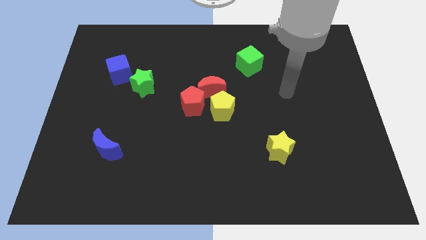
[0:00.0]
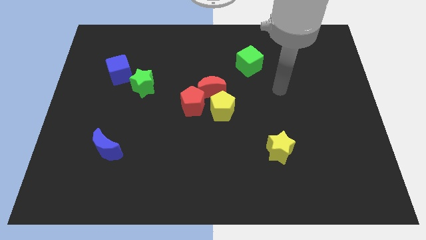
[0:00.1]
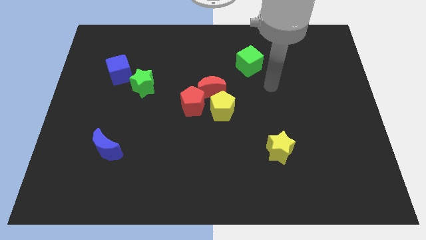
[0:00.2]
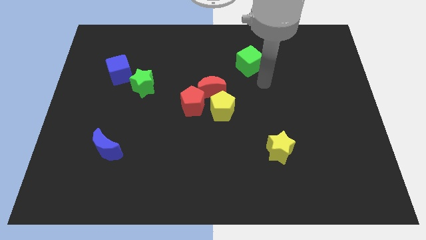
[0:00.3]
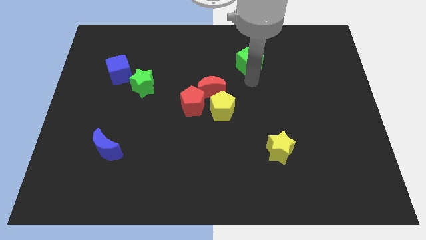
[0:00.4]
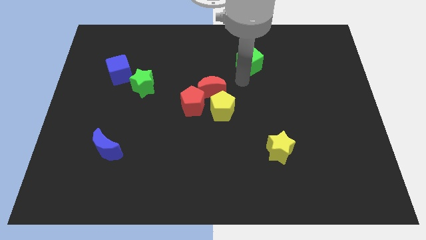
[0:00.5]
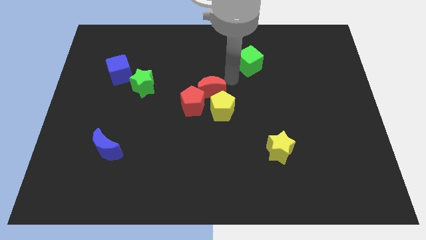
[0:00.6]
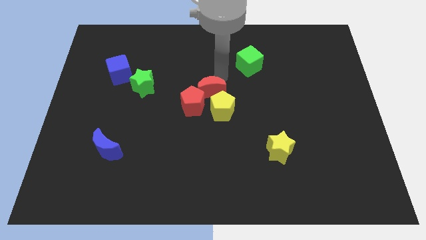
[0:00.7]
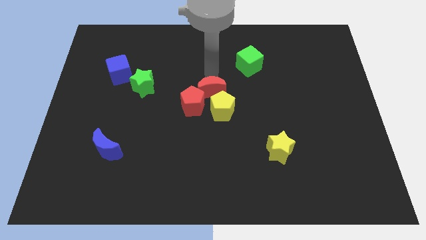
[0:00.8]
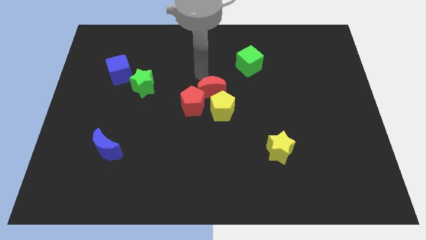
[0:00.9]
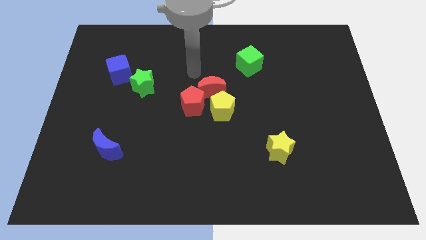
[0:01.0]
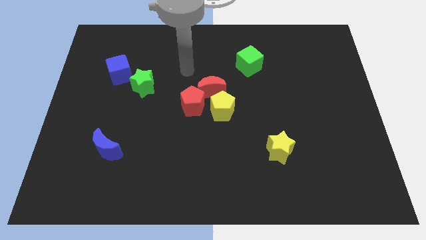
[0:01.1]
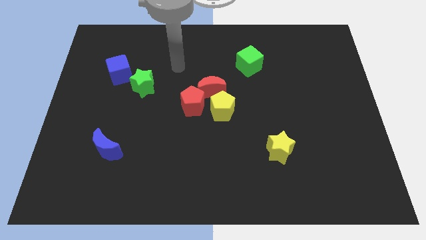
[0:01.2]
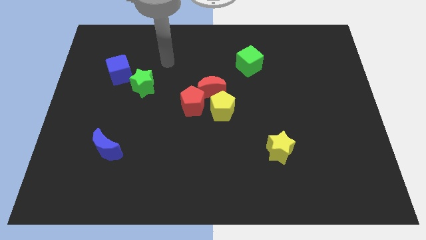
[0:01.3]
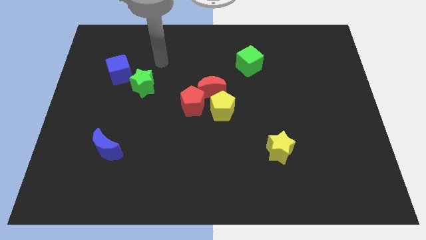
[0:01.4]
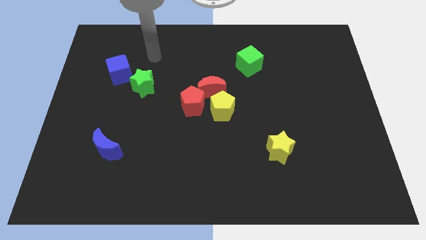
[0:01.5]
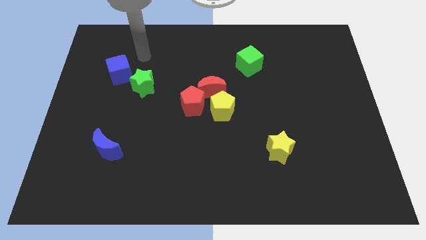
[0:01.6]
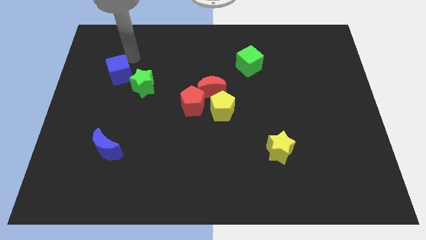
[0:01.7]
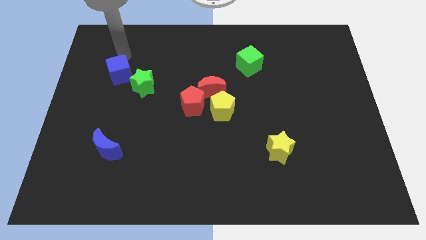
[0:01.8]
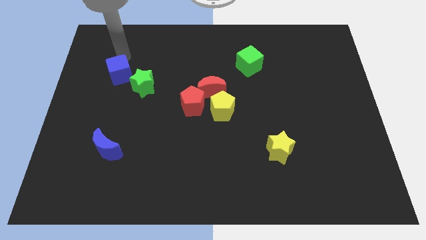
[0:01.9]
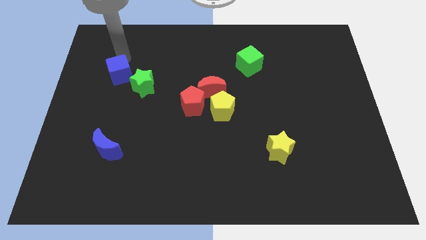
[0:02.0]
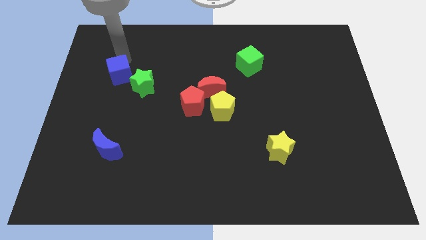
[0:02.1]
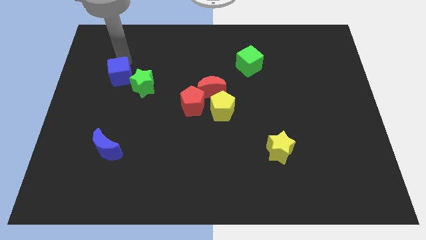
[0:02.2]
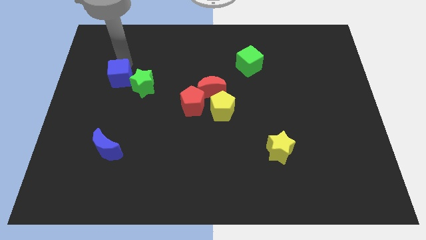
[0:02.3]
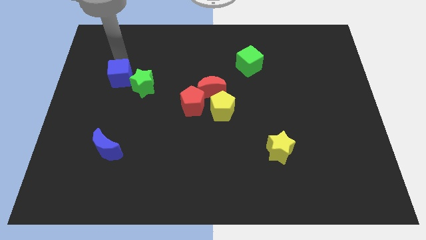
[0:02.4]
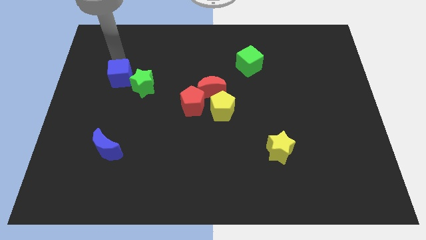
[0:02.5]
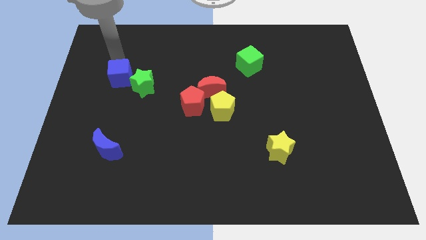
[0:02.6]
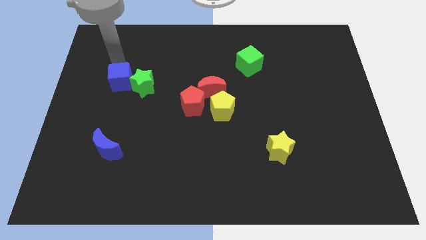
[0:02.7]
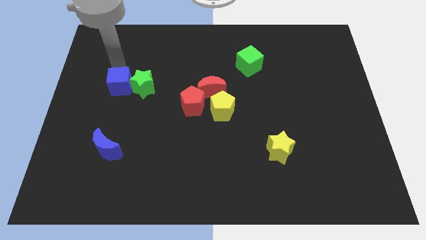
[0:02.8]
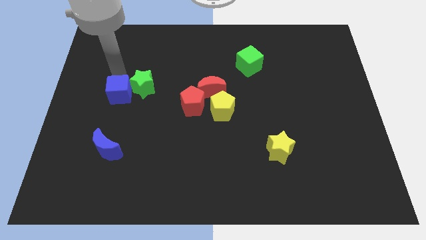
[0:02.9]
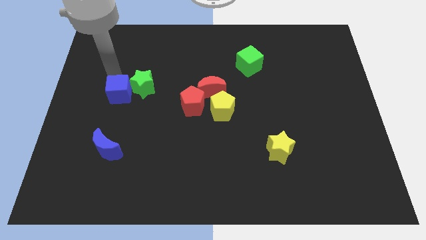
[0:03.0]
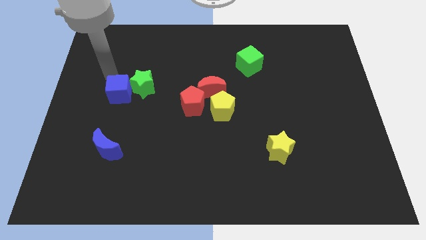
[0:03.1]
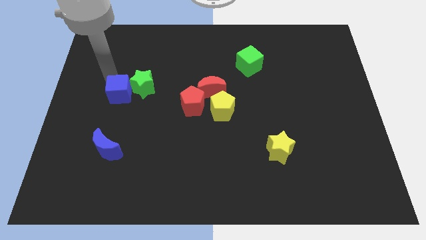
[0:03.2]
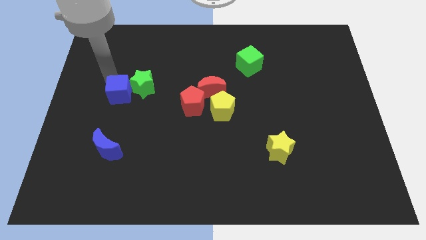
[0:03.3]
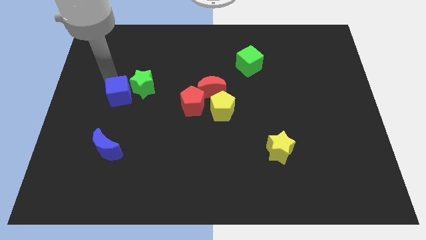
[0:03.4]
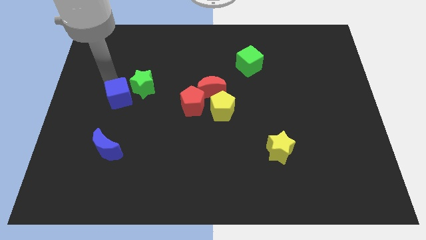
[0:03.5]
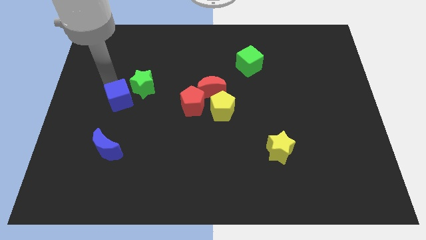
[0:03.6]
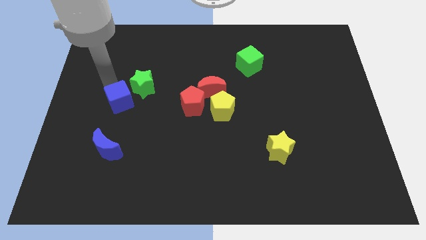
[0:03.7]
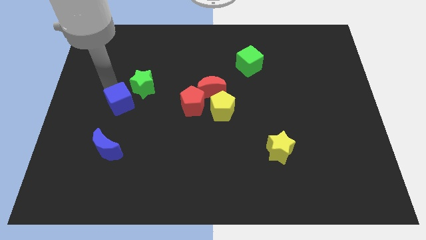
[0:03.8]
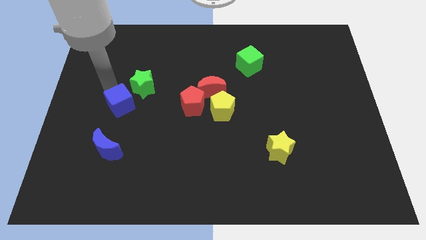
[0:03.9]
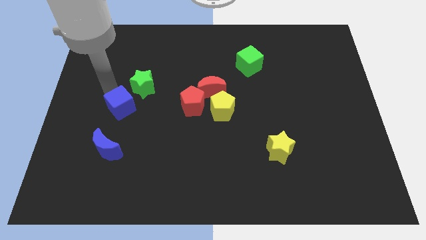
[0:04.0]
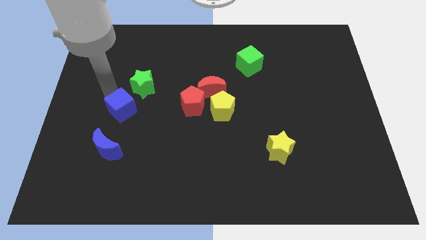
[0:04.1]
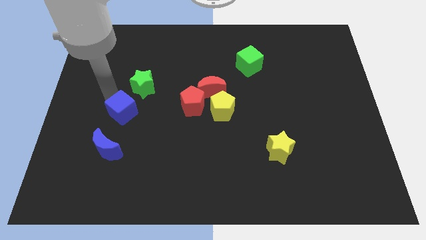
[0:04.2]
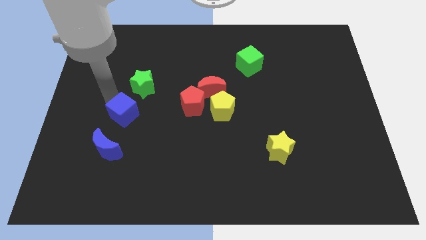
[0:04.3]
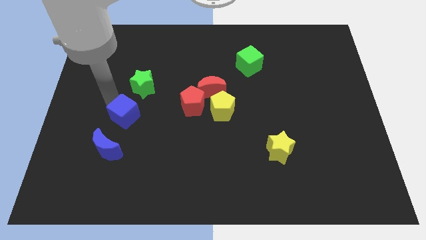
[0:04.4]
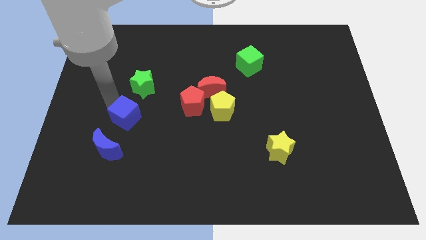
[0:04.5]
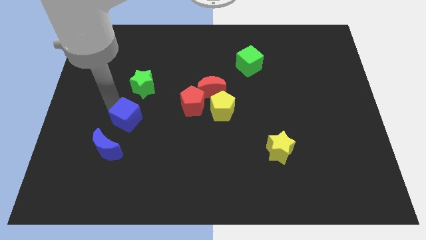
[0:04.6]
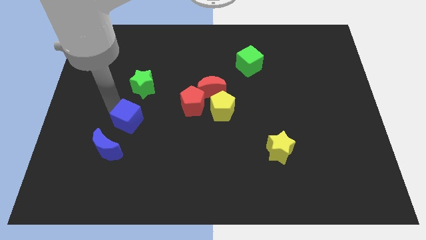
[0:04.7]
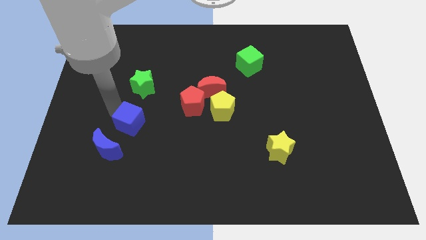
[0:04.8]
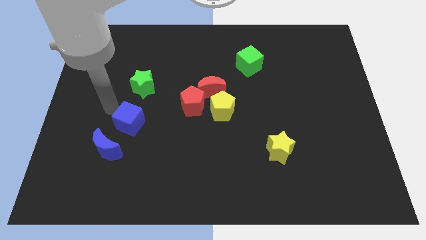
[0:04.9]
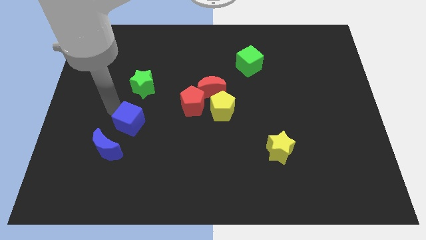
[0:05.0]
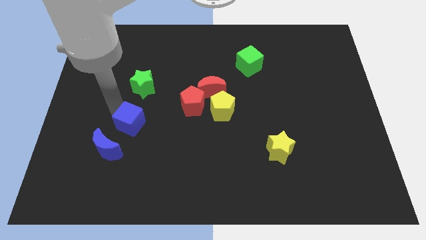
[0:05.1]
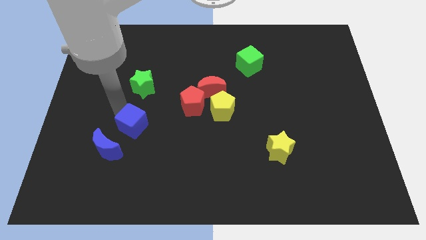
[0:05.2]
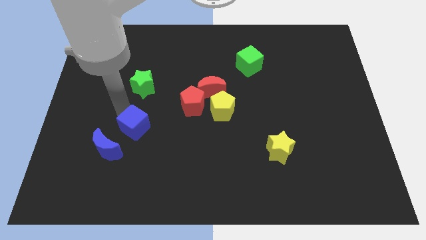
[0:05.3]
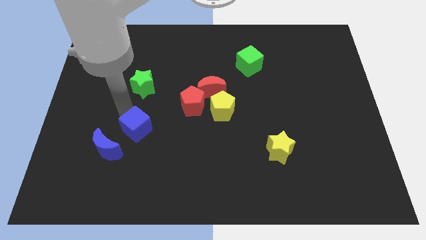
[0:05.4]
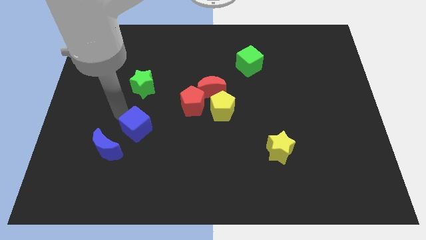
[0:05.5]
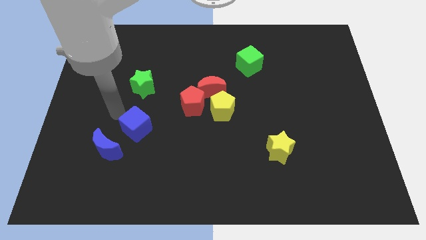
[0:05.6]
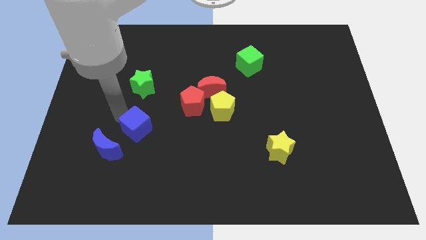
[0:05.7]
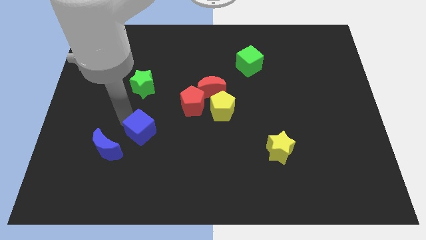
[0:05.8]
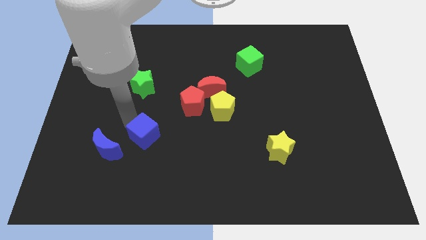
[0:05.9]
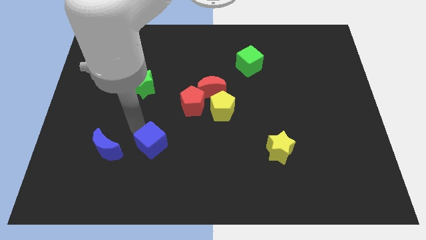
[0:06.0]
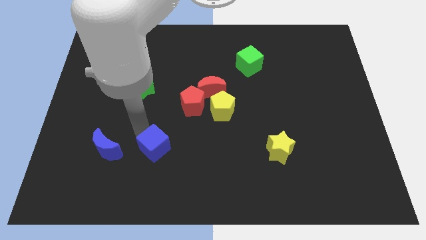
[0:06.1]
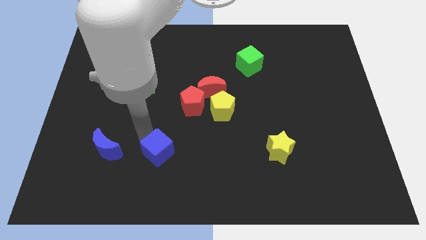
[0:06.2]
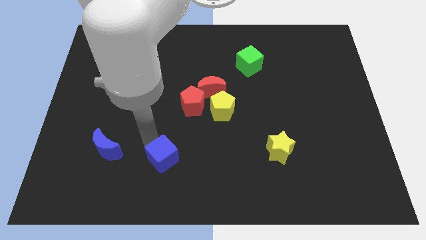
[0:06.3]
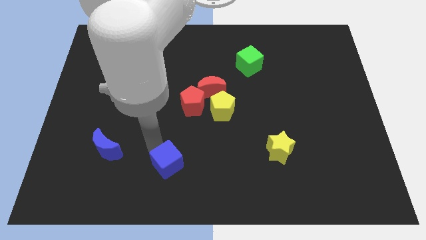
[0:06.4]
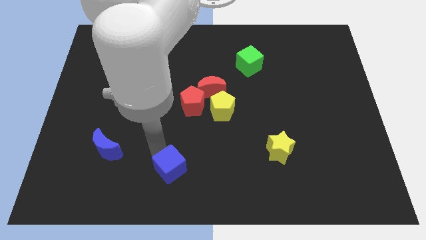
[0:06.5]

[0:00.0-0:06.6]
slide the blue cube to the bottom
